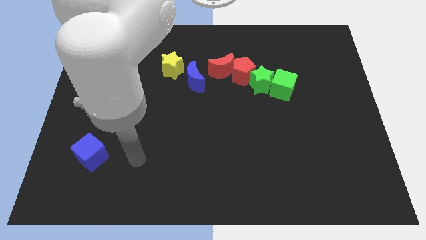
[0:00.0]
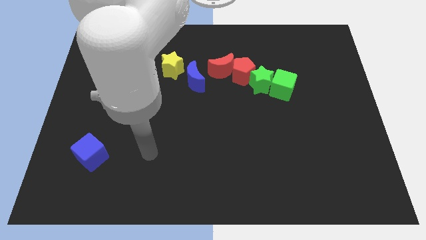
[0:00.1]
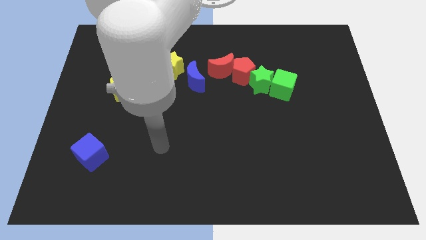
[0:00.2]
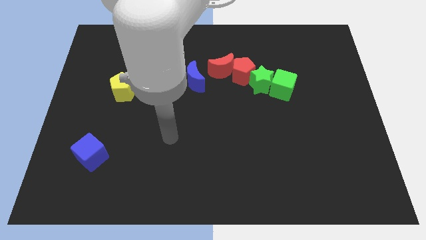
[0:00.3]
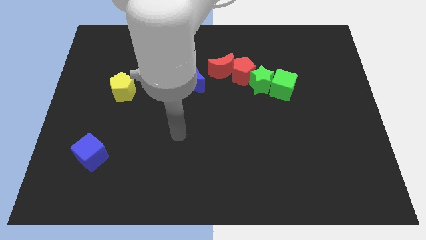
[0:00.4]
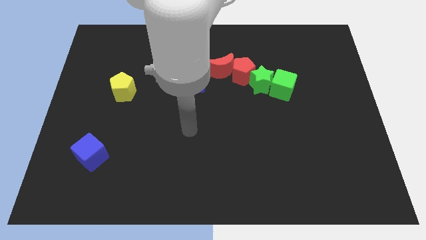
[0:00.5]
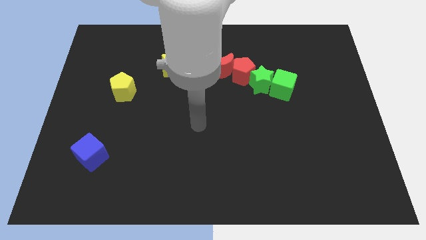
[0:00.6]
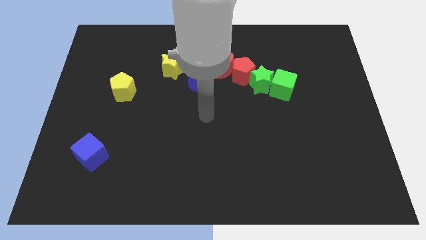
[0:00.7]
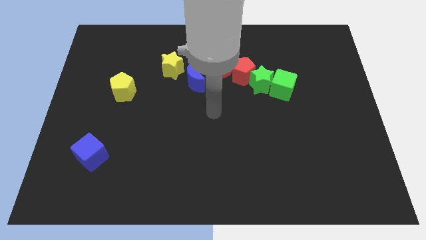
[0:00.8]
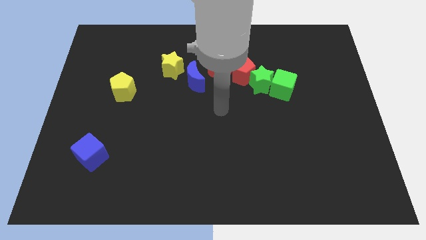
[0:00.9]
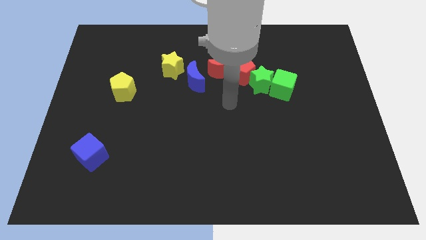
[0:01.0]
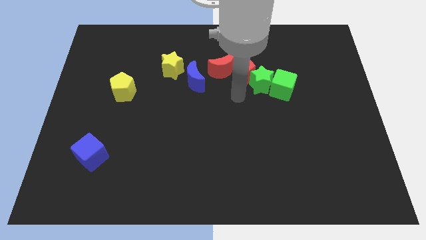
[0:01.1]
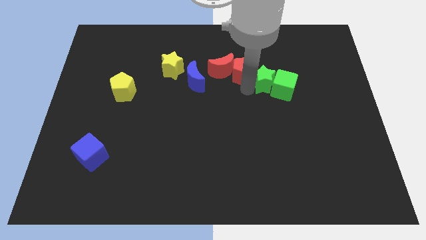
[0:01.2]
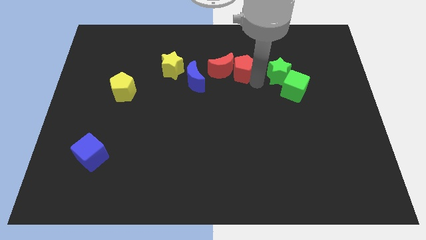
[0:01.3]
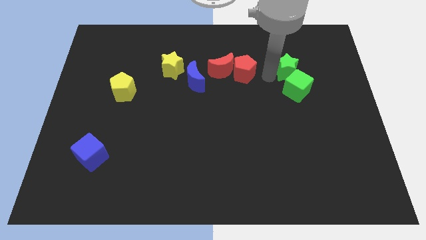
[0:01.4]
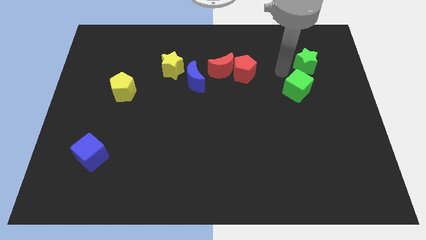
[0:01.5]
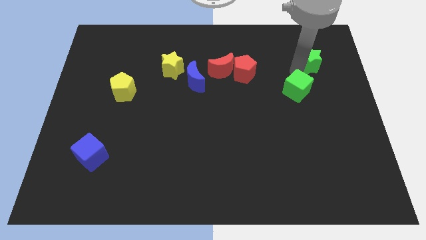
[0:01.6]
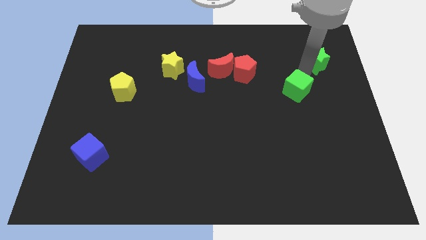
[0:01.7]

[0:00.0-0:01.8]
move the green cube away from the green star

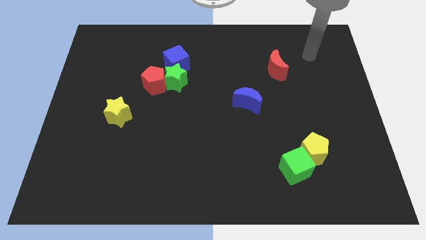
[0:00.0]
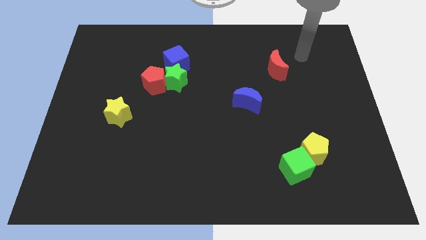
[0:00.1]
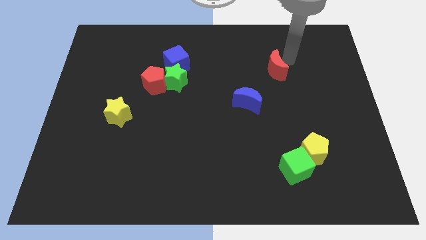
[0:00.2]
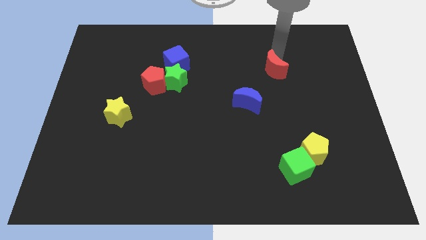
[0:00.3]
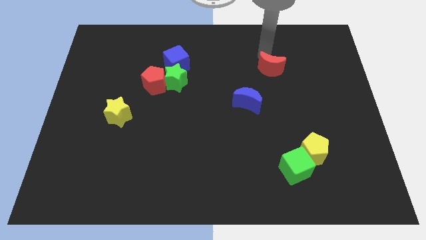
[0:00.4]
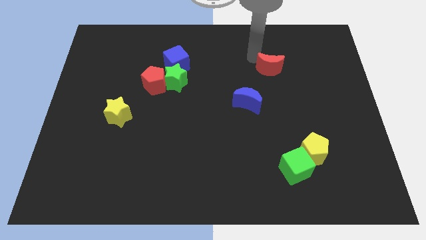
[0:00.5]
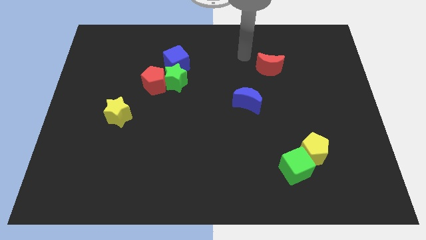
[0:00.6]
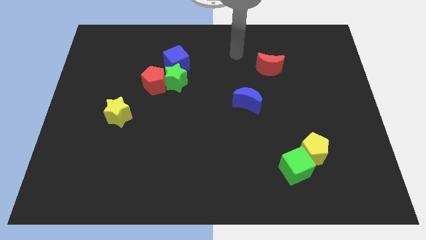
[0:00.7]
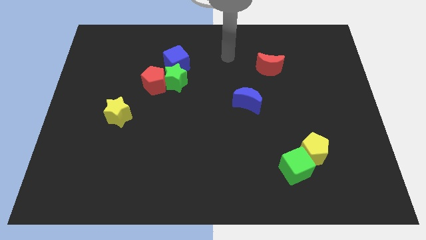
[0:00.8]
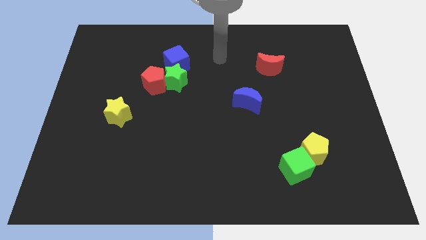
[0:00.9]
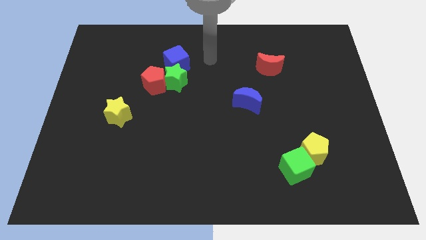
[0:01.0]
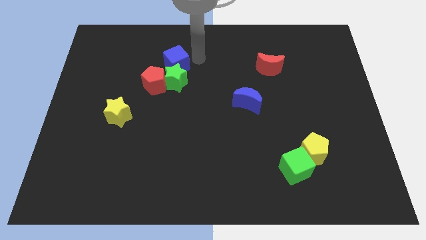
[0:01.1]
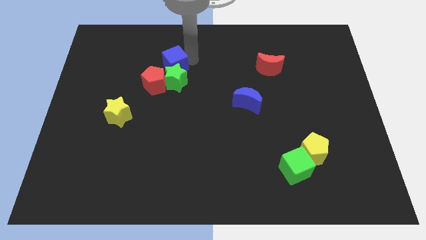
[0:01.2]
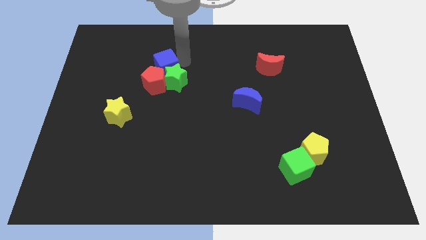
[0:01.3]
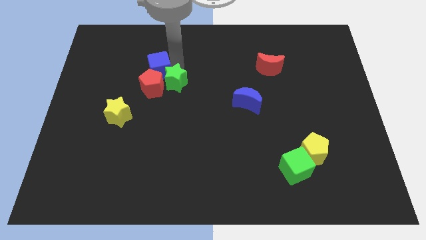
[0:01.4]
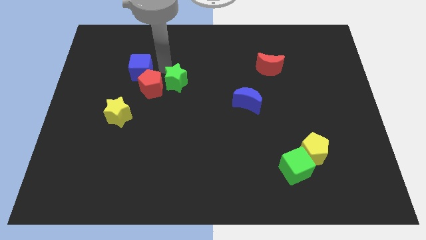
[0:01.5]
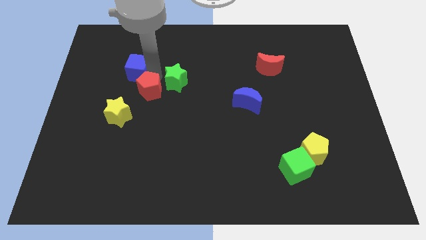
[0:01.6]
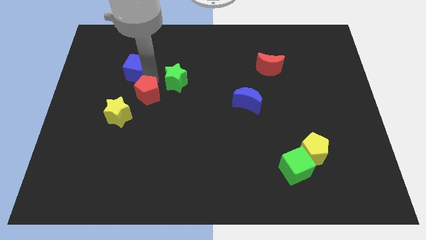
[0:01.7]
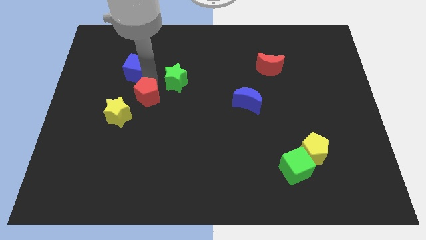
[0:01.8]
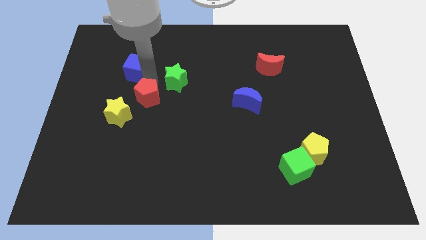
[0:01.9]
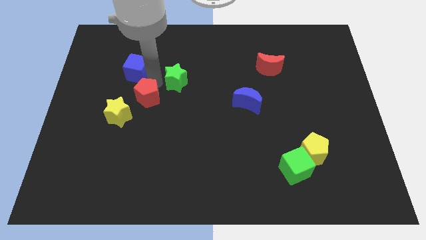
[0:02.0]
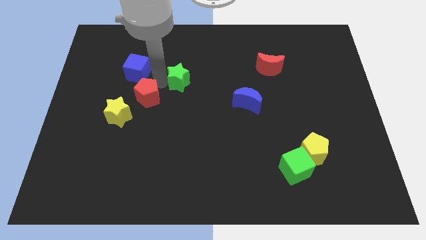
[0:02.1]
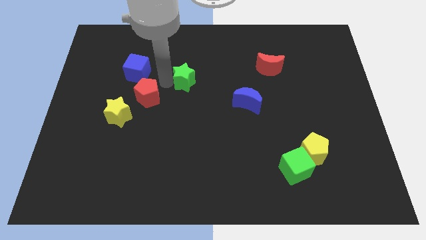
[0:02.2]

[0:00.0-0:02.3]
separate the green star from the red pentagon and blue cube

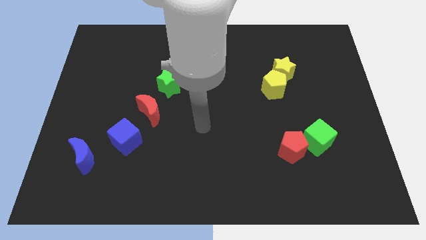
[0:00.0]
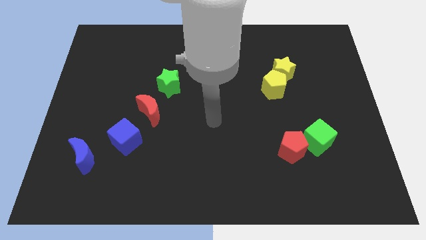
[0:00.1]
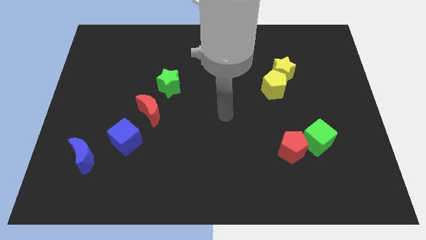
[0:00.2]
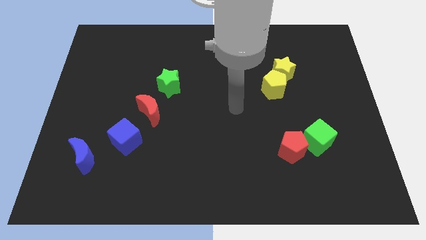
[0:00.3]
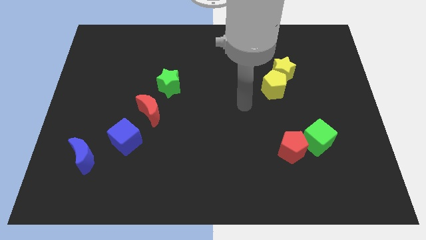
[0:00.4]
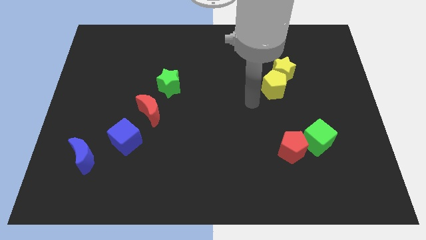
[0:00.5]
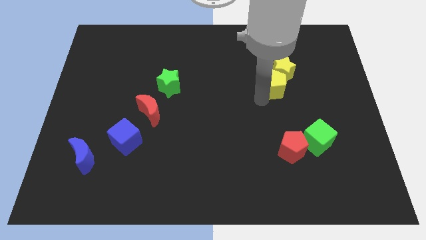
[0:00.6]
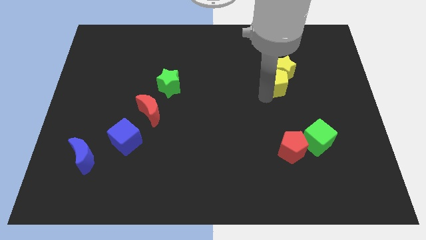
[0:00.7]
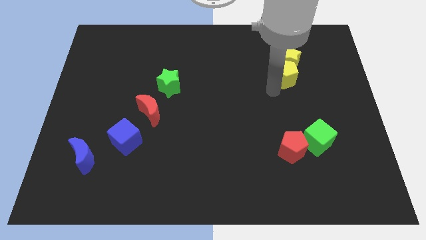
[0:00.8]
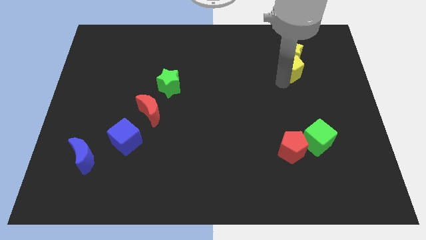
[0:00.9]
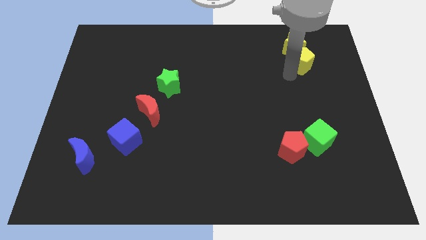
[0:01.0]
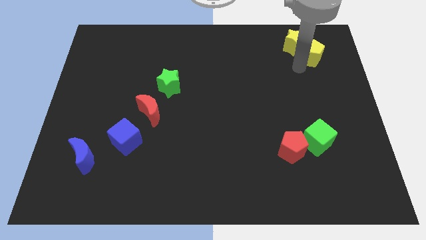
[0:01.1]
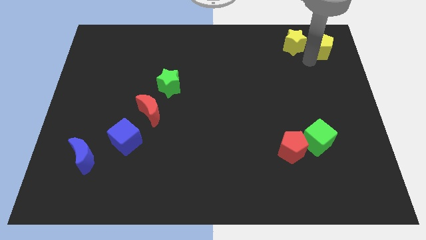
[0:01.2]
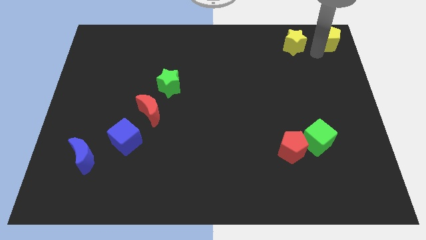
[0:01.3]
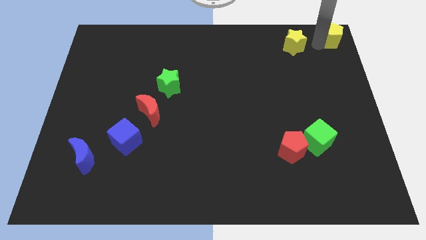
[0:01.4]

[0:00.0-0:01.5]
separate the yellow star from the yellow pentagon

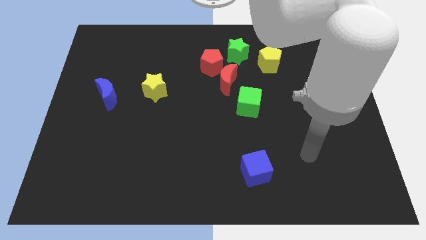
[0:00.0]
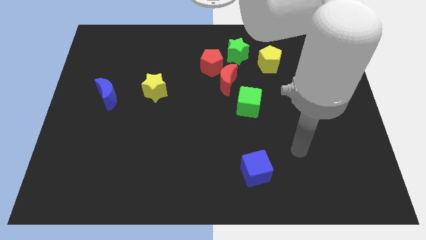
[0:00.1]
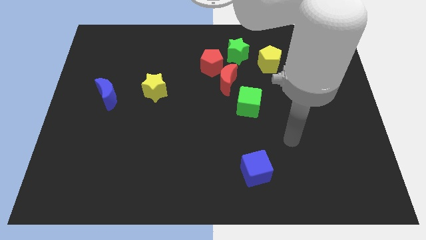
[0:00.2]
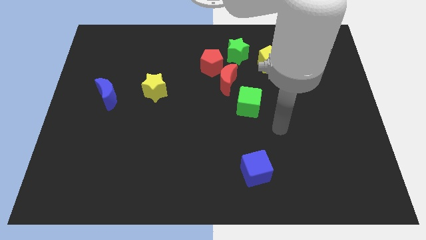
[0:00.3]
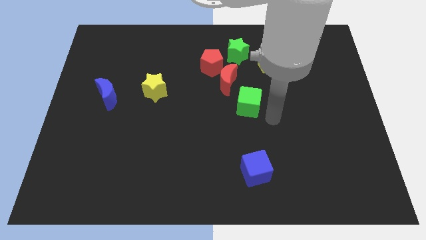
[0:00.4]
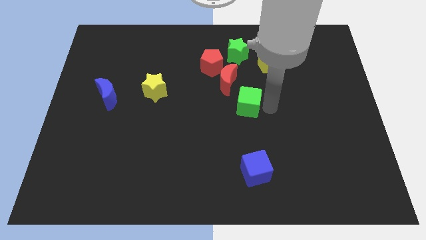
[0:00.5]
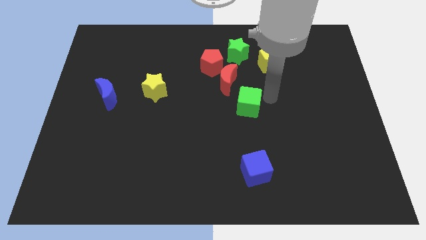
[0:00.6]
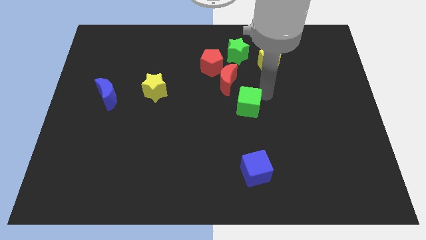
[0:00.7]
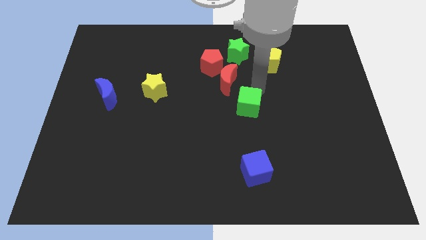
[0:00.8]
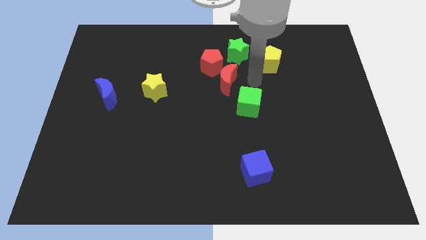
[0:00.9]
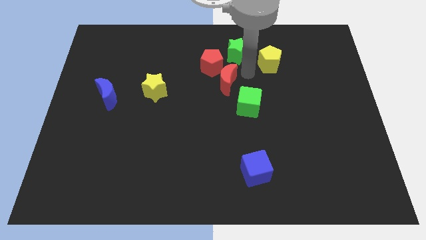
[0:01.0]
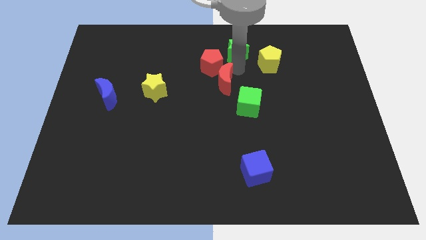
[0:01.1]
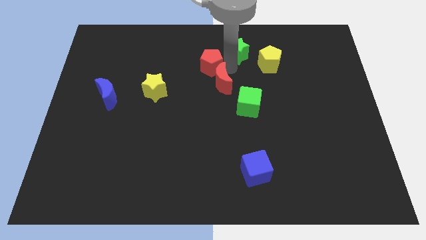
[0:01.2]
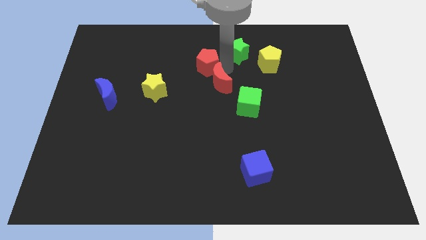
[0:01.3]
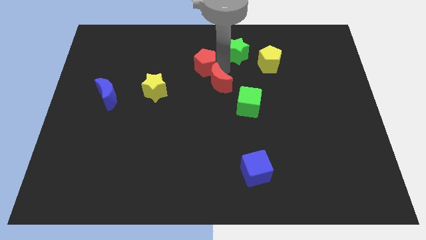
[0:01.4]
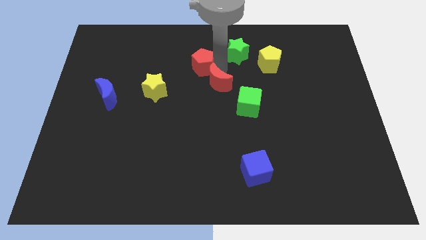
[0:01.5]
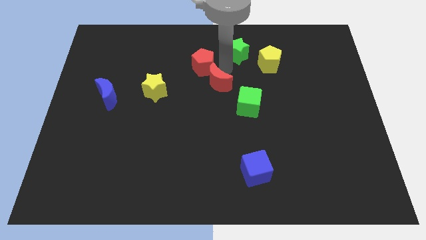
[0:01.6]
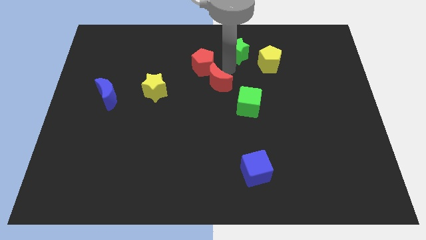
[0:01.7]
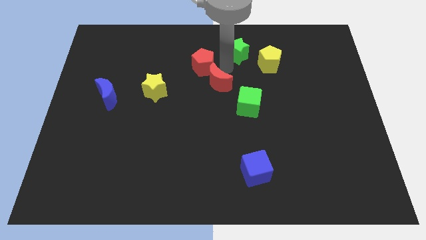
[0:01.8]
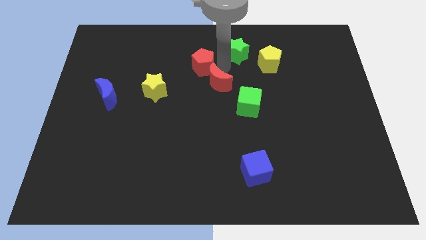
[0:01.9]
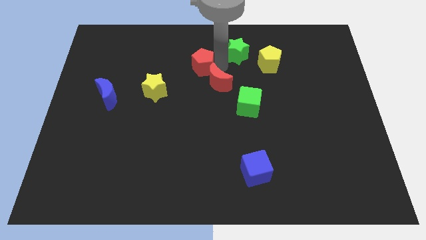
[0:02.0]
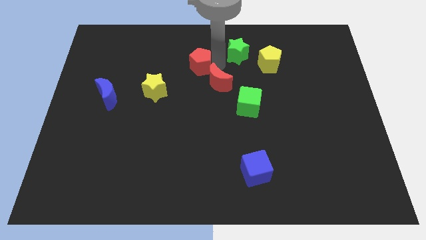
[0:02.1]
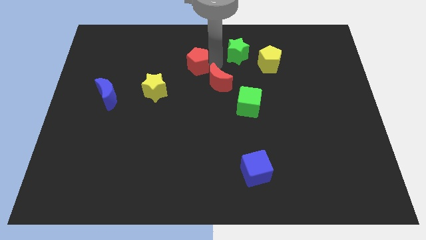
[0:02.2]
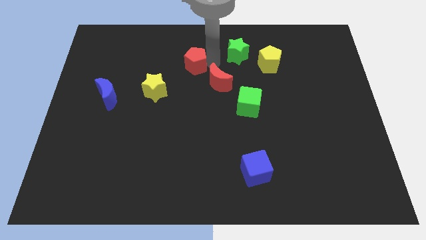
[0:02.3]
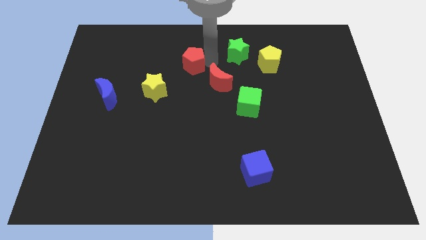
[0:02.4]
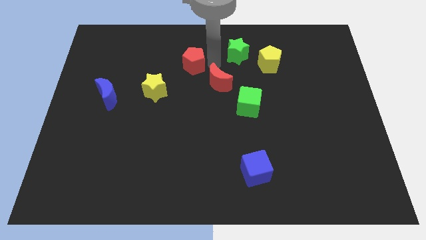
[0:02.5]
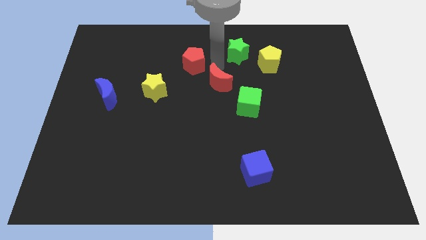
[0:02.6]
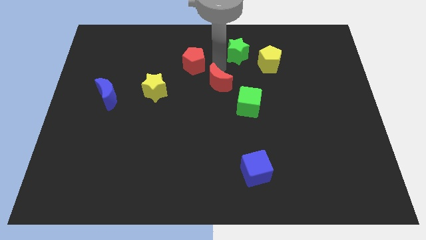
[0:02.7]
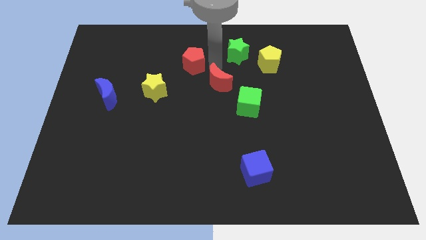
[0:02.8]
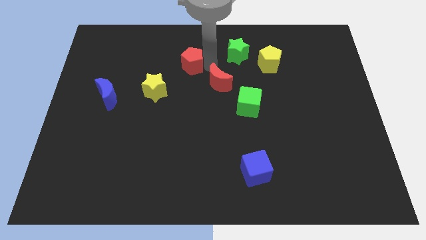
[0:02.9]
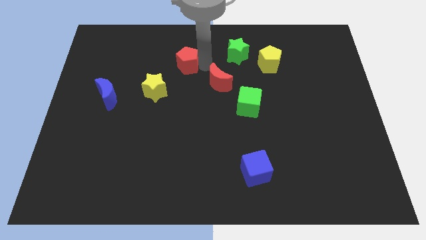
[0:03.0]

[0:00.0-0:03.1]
separate the red pentagon from the red moon and green star

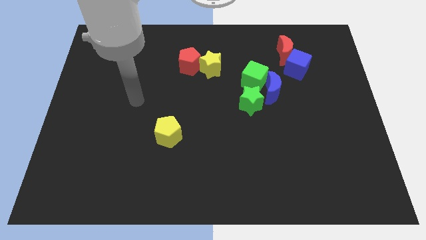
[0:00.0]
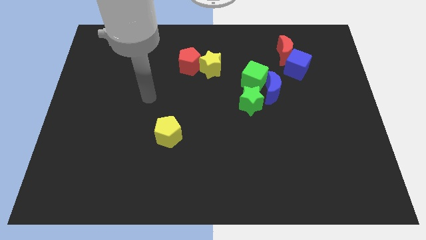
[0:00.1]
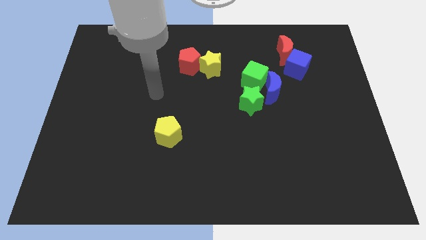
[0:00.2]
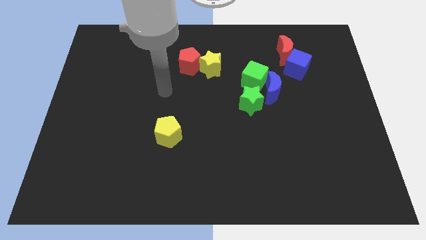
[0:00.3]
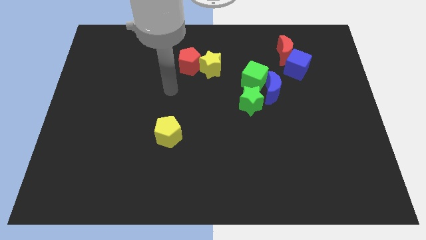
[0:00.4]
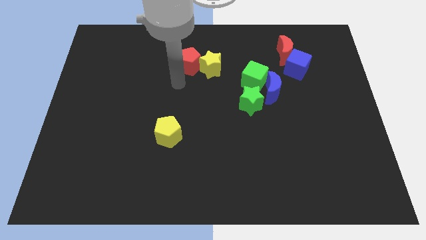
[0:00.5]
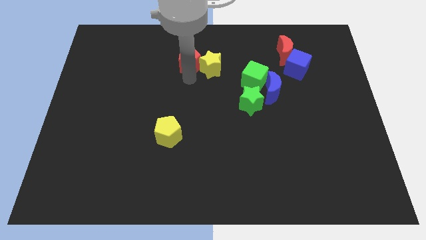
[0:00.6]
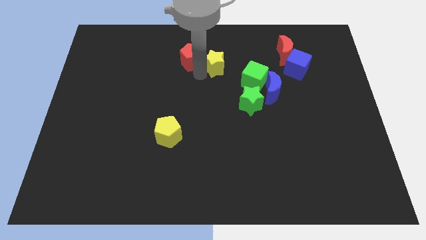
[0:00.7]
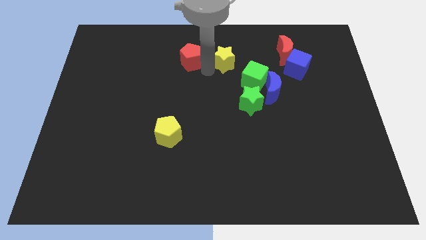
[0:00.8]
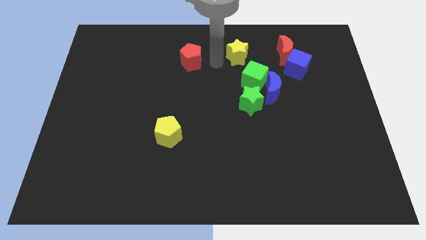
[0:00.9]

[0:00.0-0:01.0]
move the red pentagon away from the yellow star
